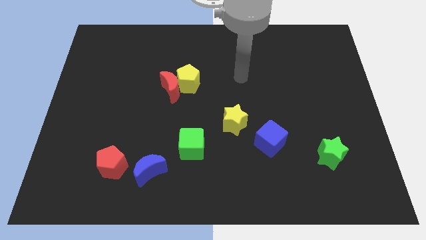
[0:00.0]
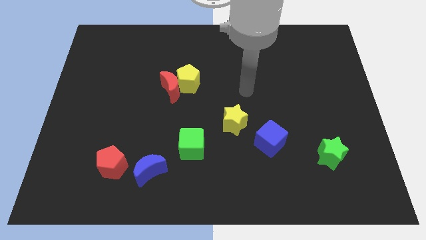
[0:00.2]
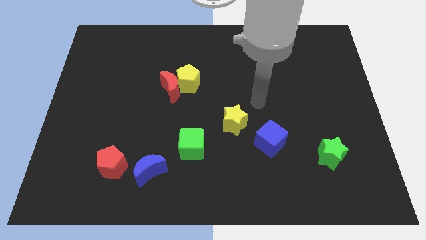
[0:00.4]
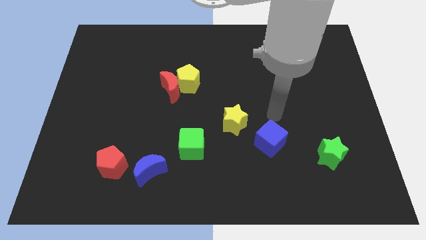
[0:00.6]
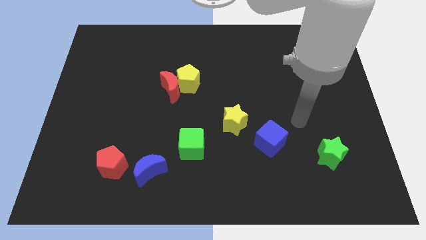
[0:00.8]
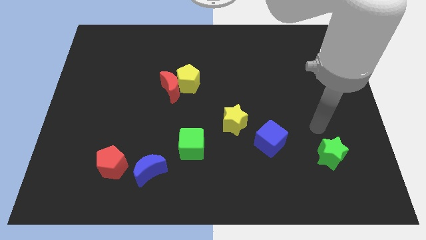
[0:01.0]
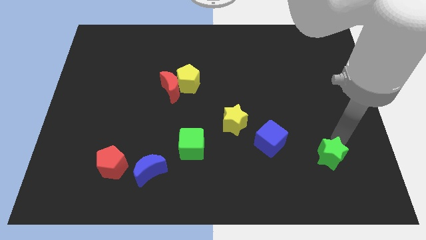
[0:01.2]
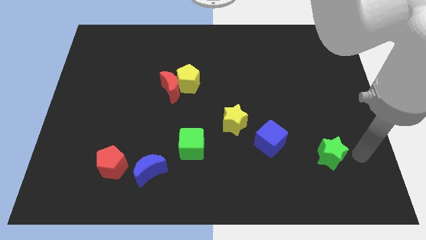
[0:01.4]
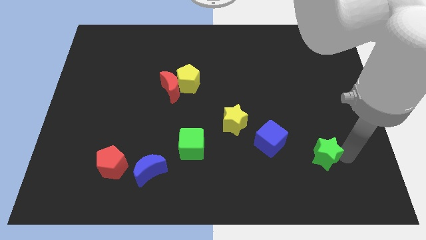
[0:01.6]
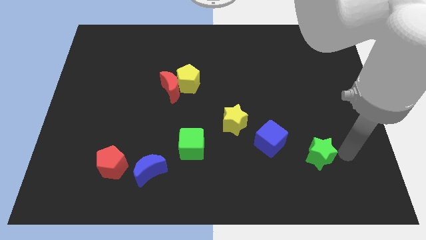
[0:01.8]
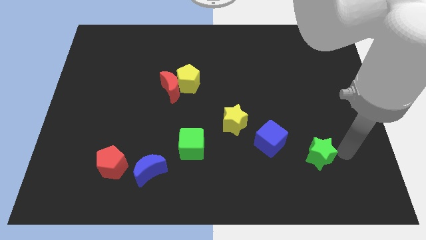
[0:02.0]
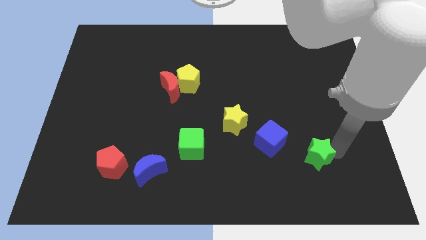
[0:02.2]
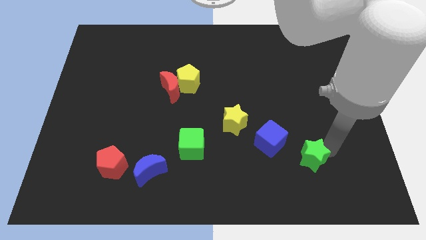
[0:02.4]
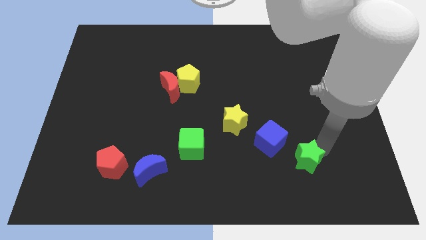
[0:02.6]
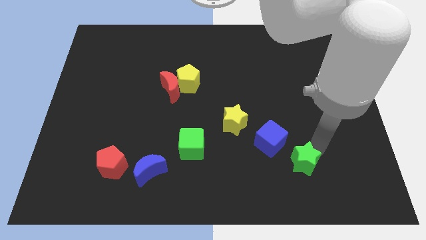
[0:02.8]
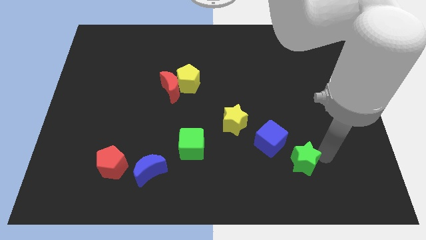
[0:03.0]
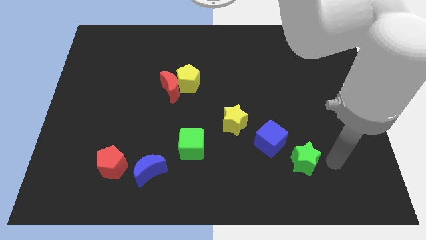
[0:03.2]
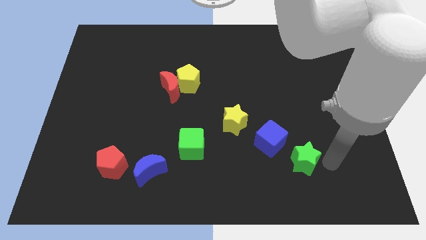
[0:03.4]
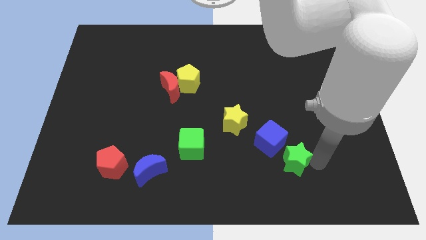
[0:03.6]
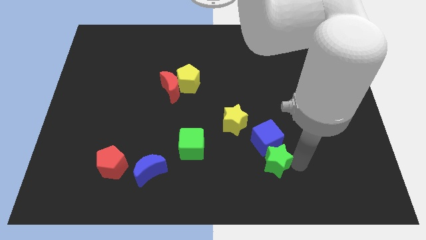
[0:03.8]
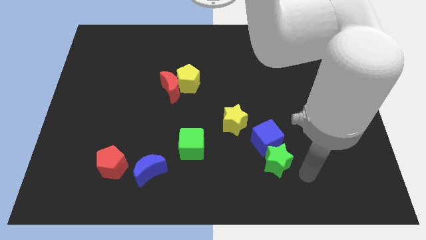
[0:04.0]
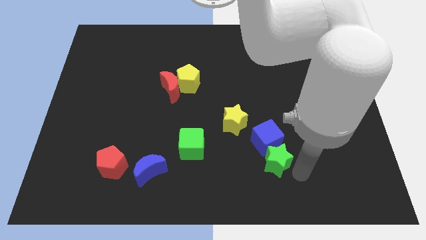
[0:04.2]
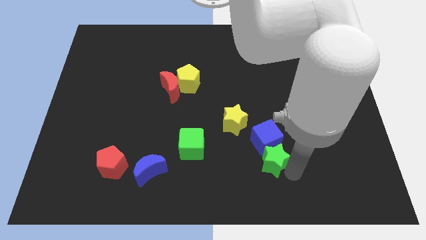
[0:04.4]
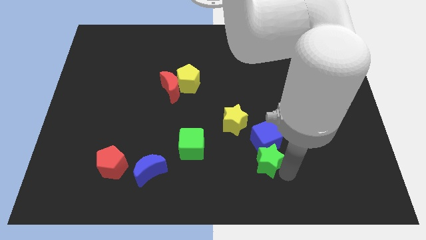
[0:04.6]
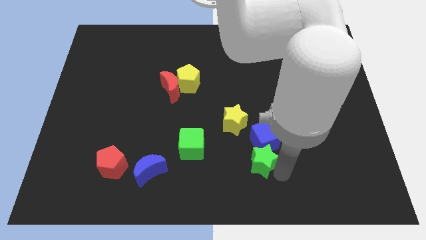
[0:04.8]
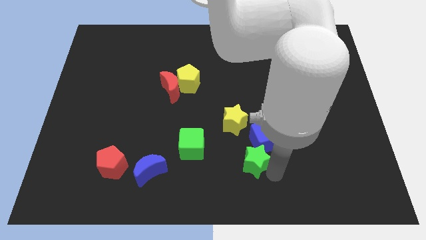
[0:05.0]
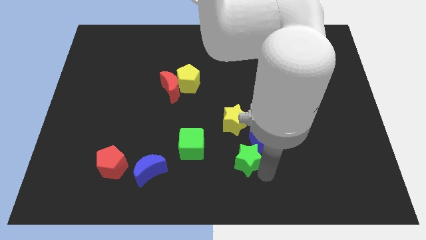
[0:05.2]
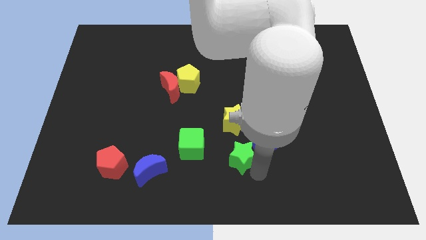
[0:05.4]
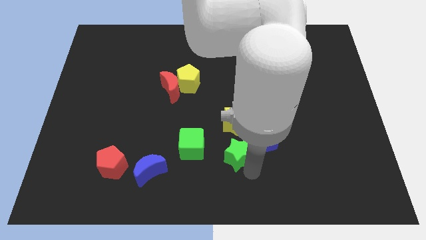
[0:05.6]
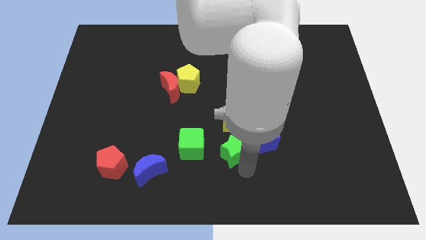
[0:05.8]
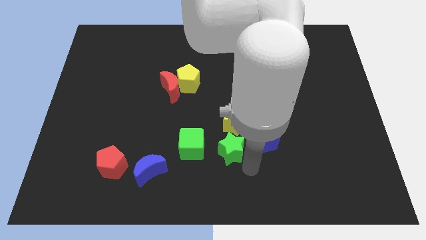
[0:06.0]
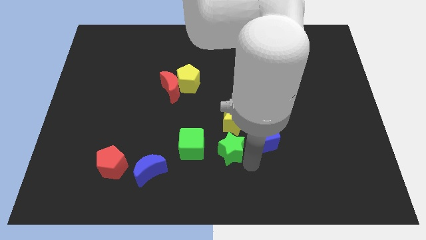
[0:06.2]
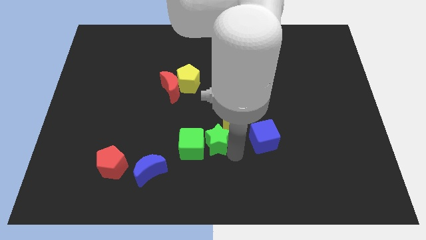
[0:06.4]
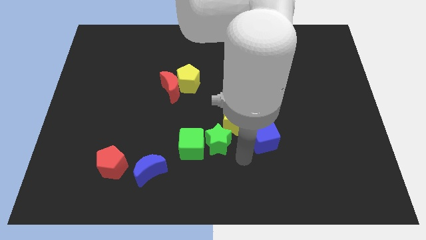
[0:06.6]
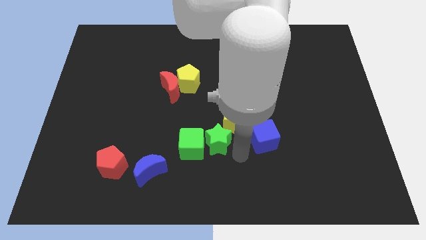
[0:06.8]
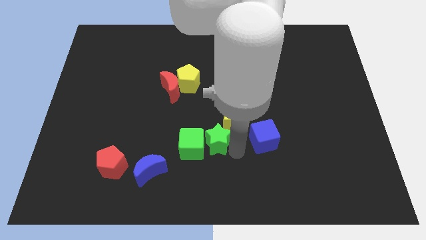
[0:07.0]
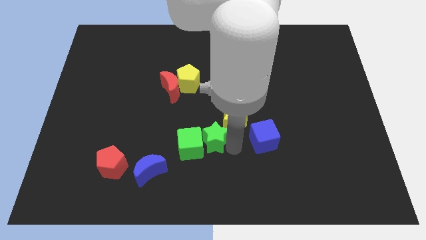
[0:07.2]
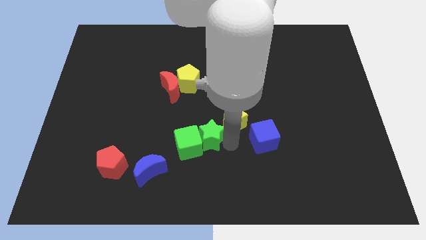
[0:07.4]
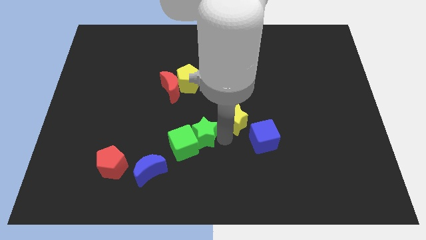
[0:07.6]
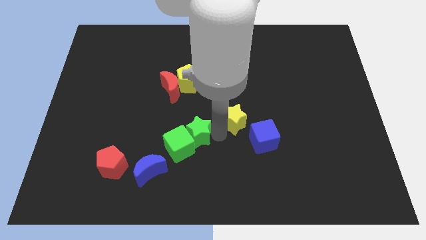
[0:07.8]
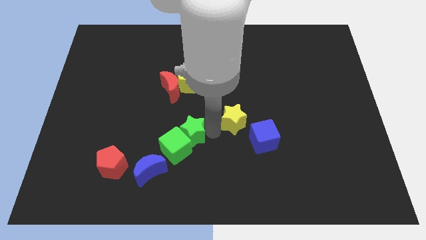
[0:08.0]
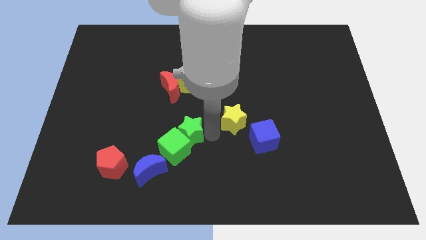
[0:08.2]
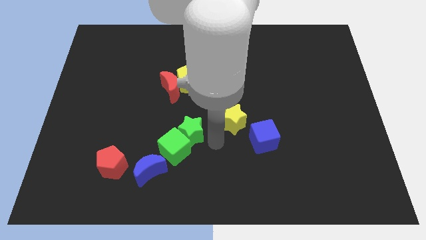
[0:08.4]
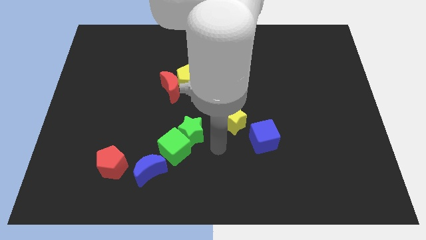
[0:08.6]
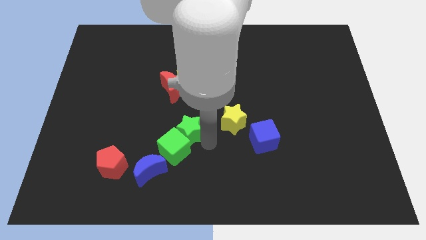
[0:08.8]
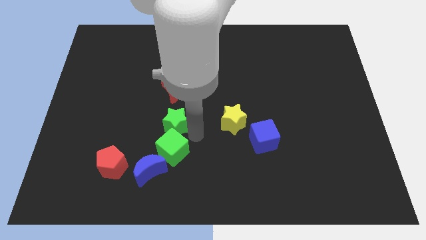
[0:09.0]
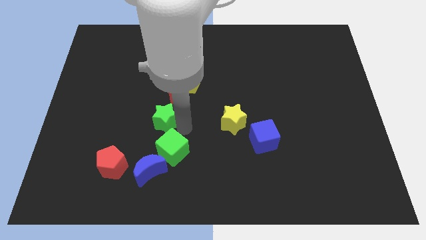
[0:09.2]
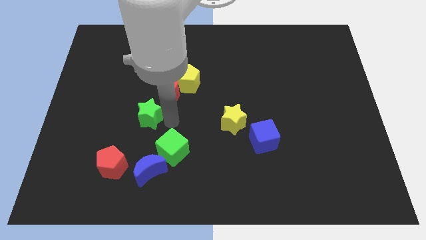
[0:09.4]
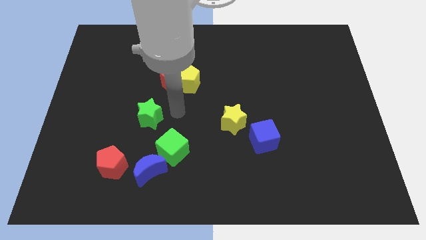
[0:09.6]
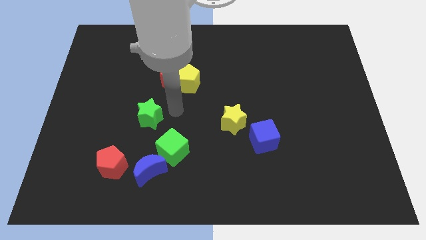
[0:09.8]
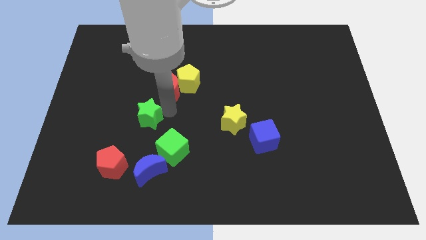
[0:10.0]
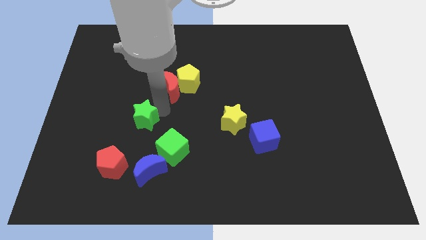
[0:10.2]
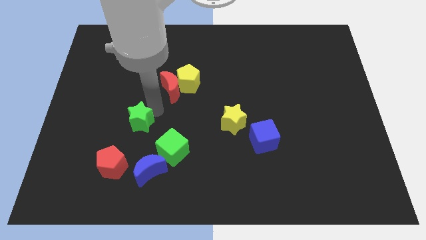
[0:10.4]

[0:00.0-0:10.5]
slide the green star to the top of the red pentagon
